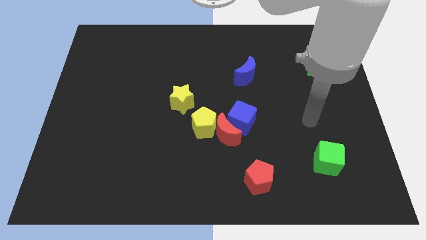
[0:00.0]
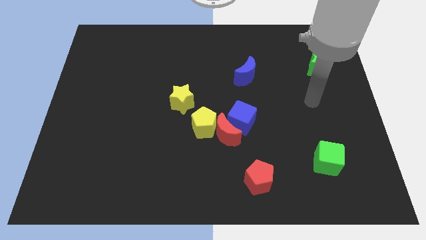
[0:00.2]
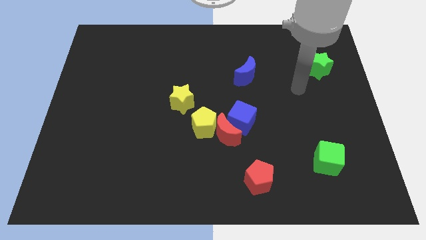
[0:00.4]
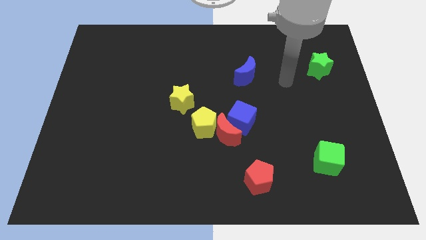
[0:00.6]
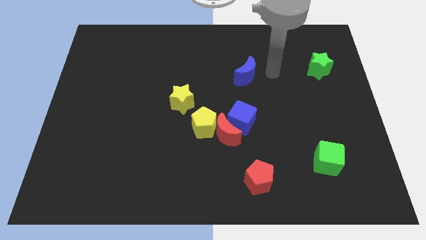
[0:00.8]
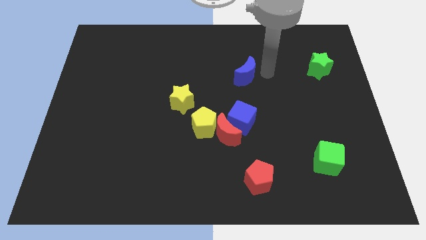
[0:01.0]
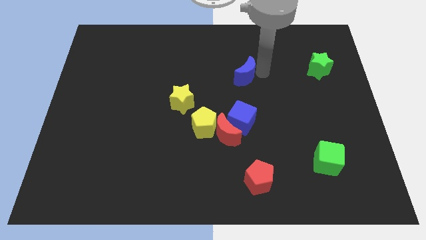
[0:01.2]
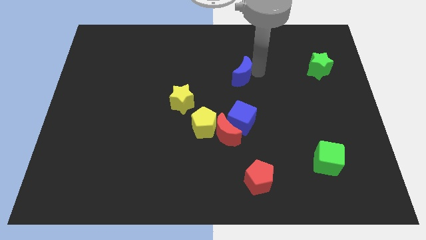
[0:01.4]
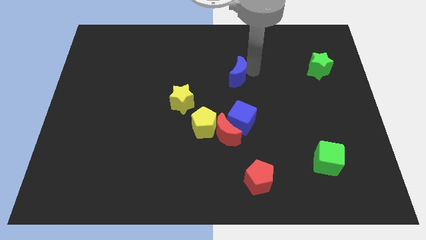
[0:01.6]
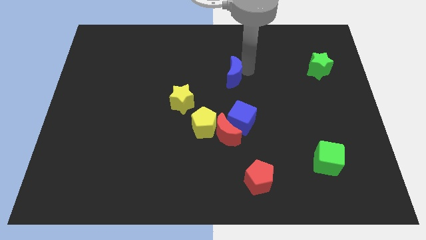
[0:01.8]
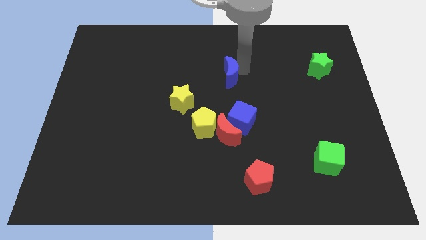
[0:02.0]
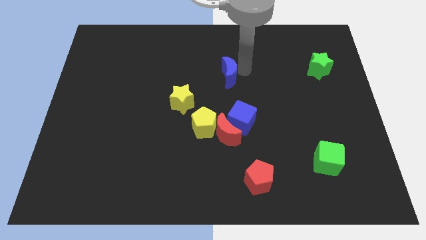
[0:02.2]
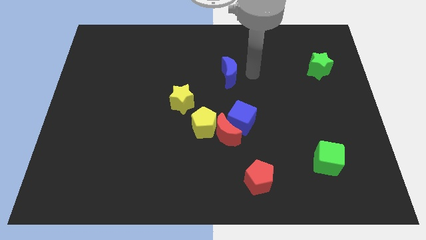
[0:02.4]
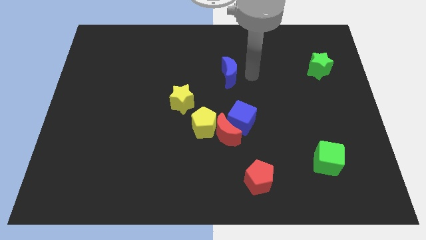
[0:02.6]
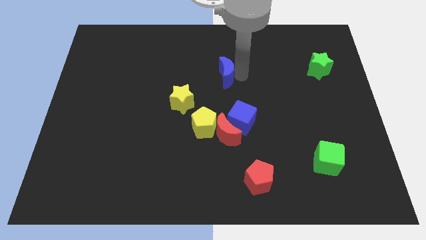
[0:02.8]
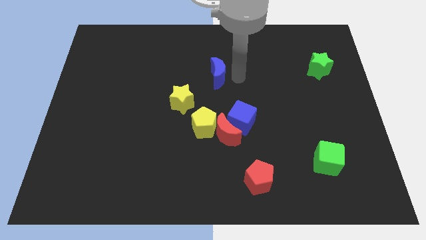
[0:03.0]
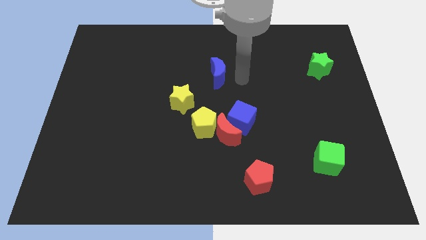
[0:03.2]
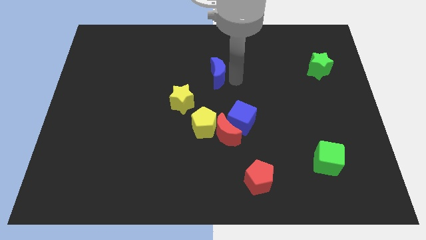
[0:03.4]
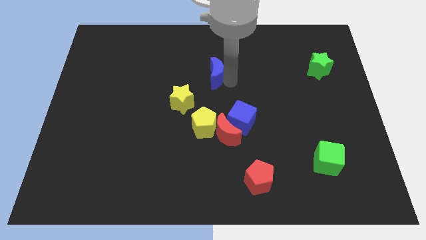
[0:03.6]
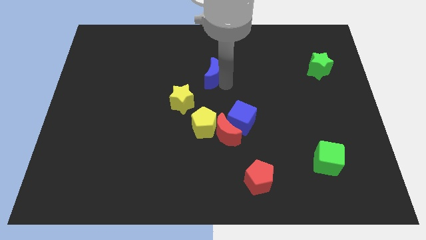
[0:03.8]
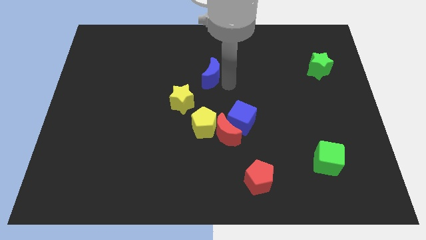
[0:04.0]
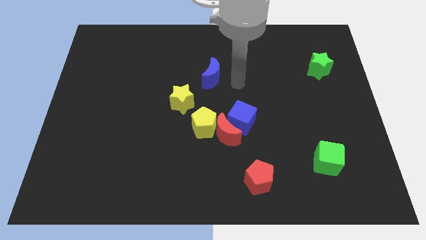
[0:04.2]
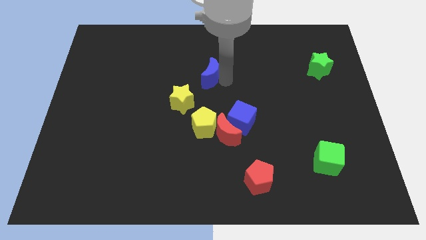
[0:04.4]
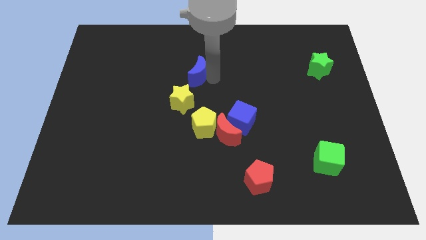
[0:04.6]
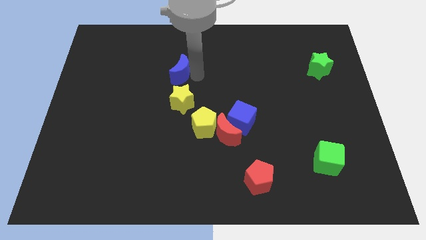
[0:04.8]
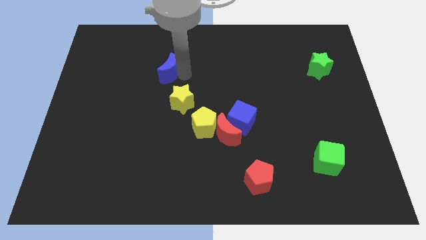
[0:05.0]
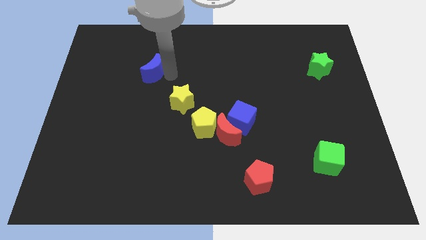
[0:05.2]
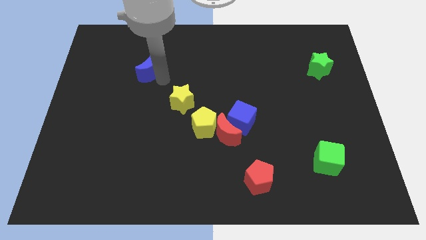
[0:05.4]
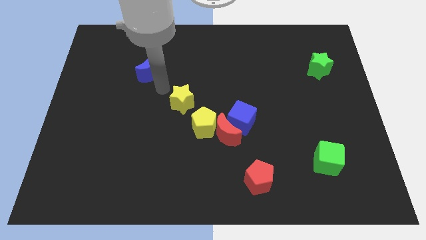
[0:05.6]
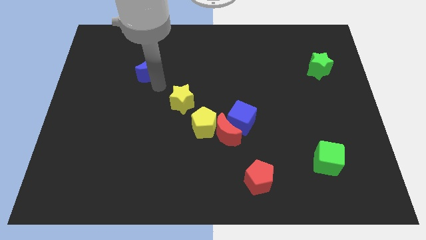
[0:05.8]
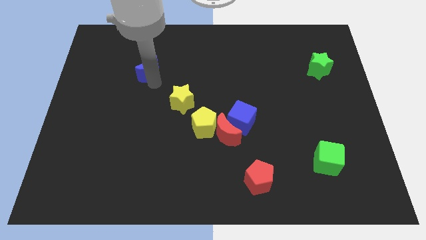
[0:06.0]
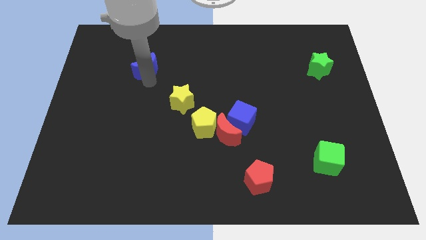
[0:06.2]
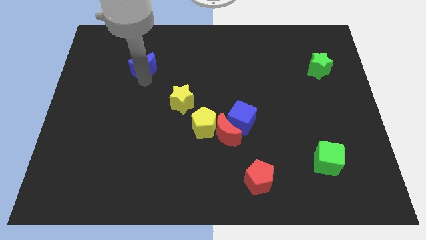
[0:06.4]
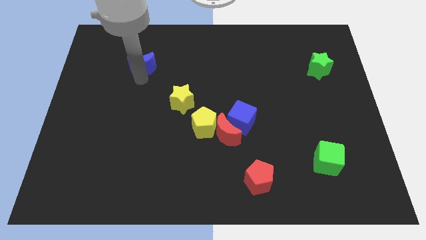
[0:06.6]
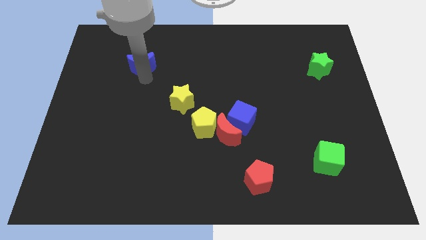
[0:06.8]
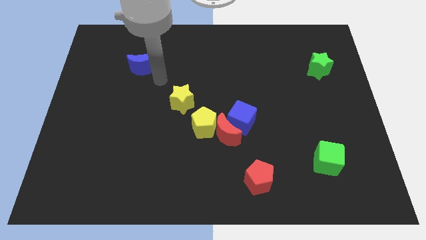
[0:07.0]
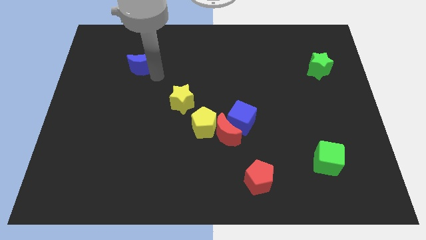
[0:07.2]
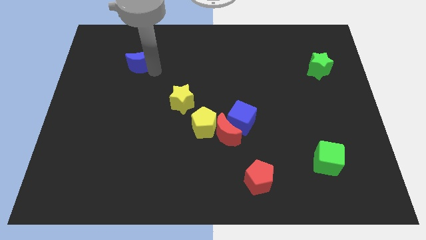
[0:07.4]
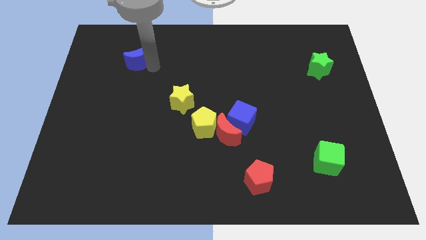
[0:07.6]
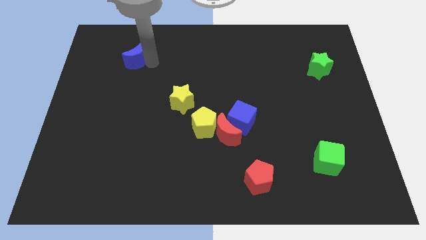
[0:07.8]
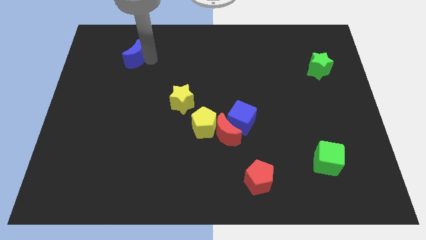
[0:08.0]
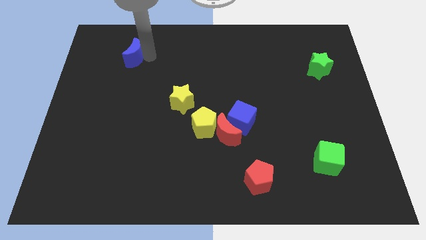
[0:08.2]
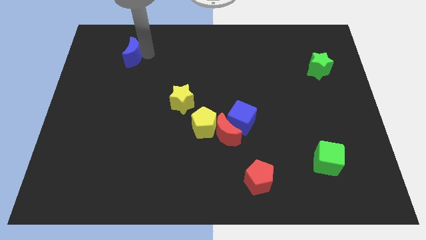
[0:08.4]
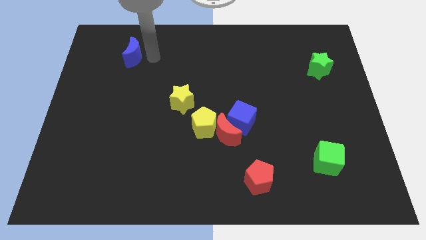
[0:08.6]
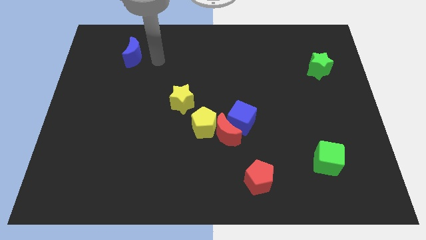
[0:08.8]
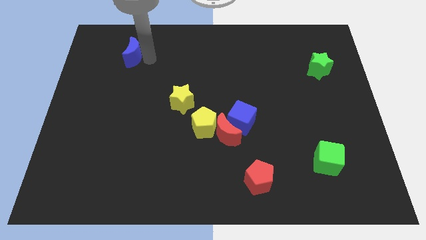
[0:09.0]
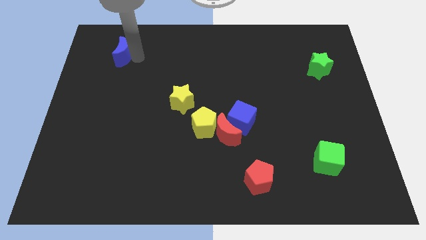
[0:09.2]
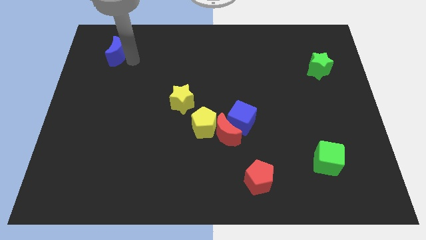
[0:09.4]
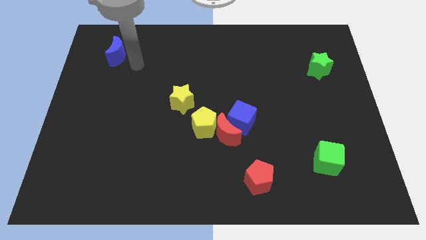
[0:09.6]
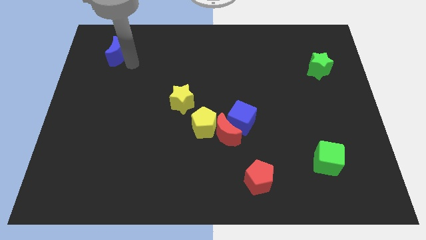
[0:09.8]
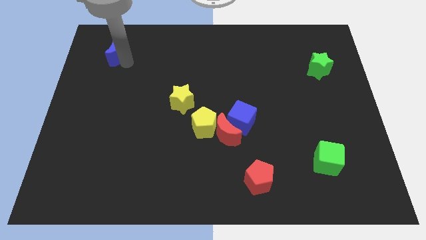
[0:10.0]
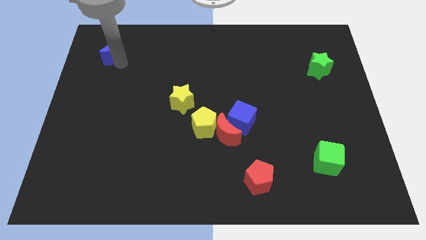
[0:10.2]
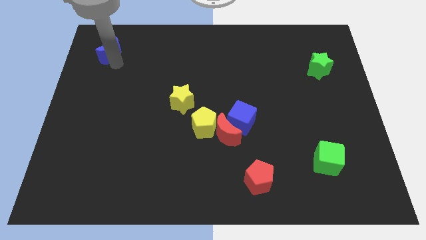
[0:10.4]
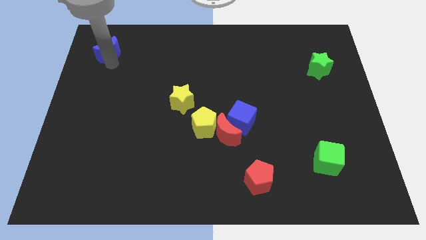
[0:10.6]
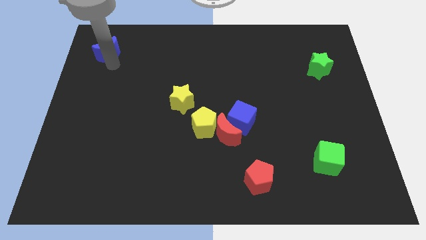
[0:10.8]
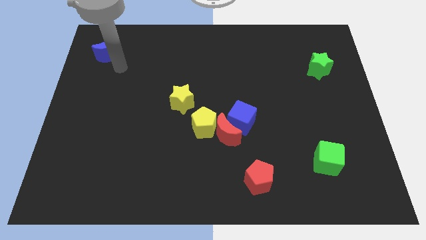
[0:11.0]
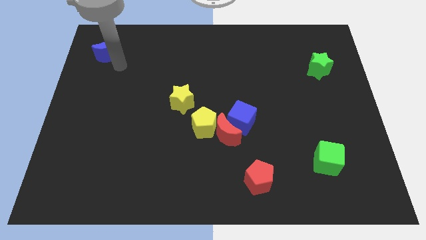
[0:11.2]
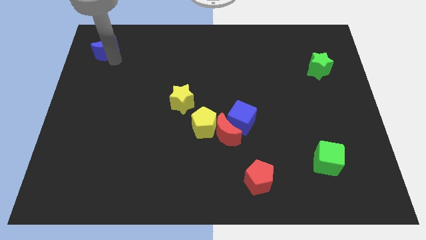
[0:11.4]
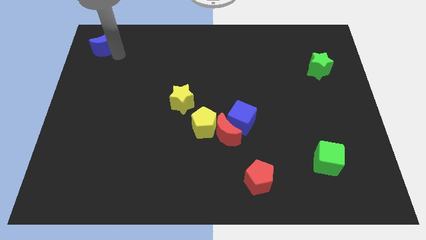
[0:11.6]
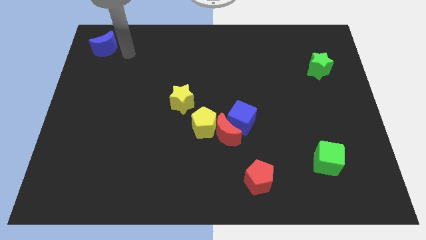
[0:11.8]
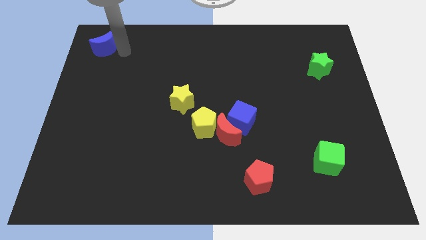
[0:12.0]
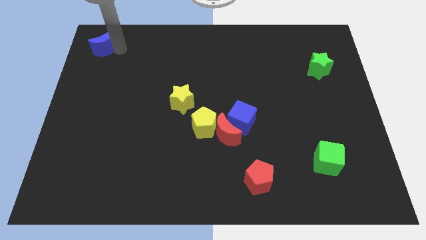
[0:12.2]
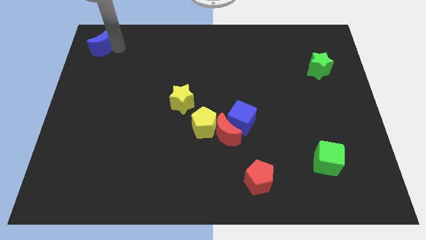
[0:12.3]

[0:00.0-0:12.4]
move the blue moon to the top left
